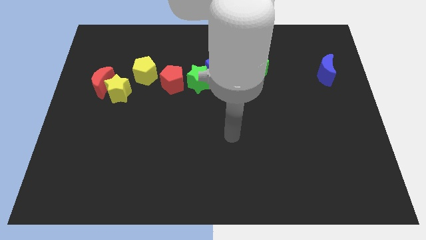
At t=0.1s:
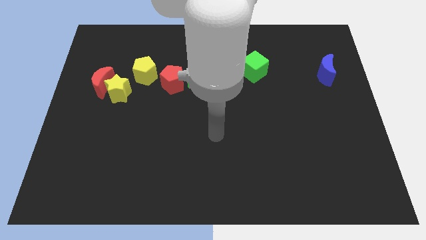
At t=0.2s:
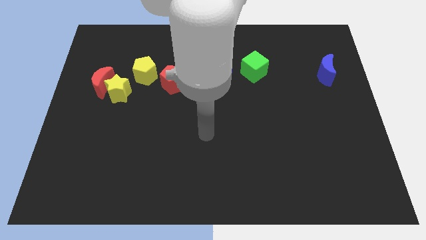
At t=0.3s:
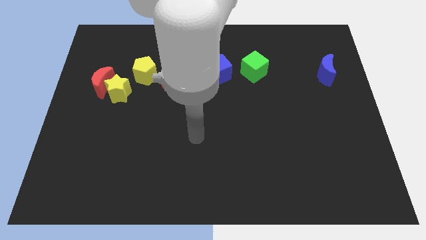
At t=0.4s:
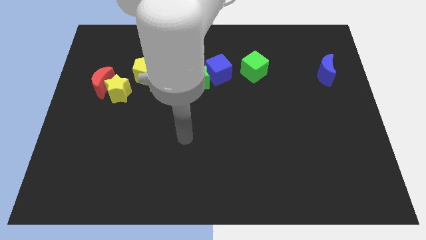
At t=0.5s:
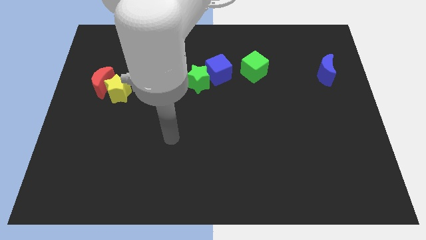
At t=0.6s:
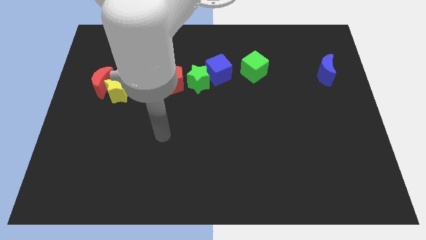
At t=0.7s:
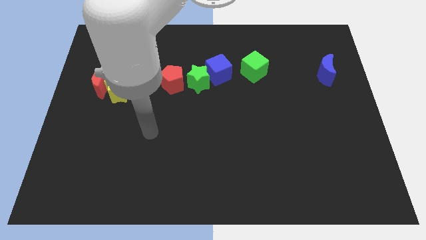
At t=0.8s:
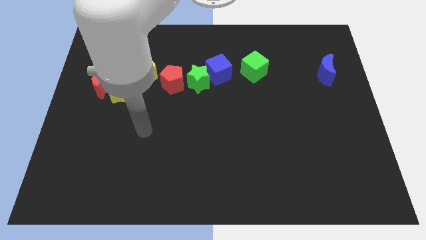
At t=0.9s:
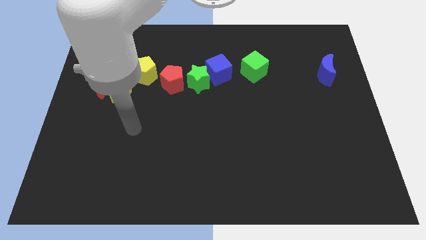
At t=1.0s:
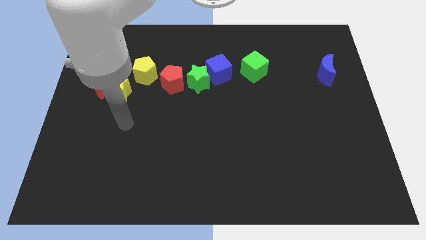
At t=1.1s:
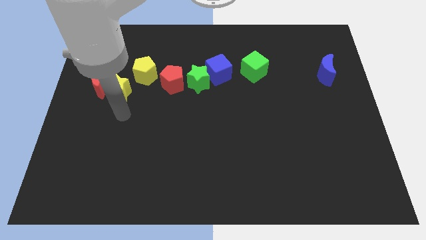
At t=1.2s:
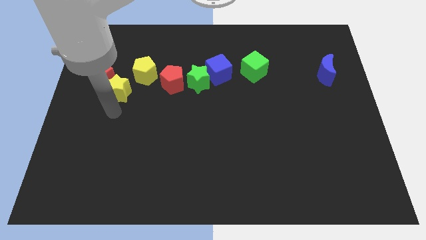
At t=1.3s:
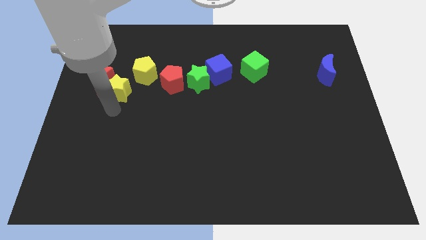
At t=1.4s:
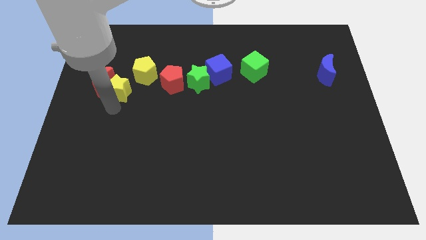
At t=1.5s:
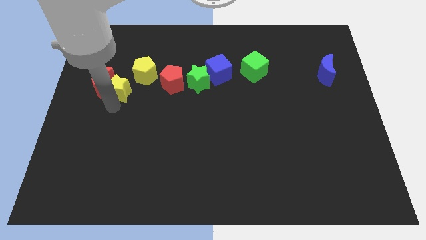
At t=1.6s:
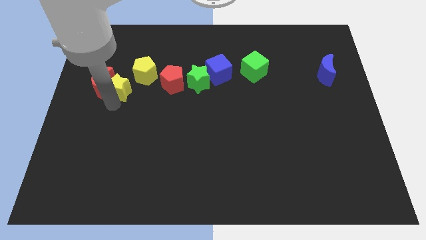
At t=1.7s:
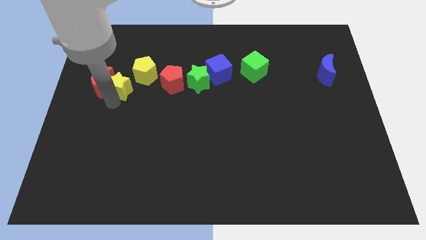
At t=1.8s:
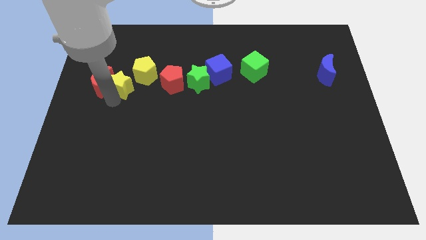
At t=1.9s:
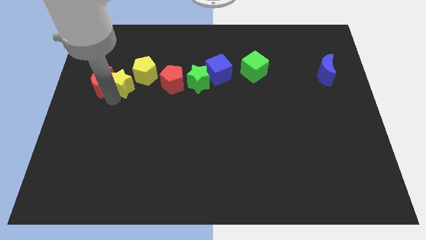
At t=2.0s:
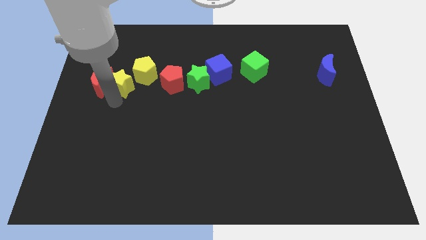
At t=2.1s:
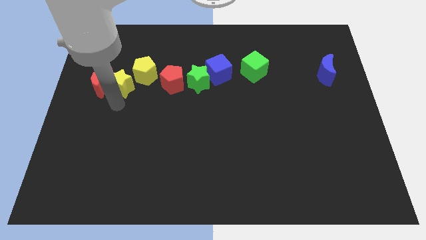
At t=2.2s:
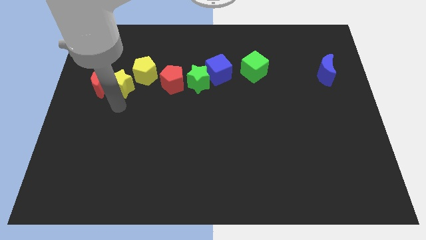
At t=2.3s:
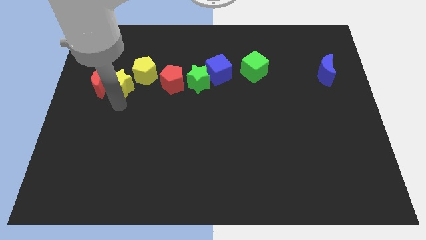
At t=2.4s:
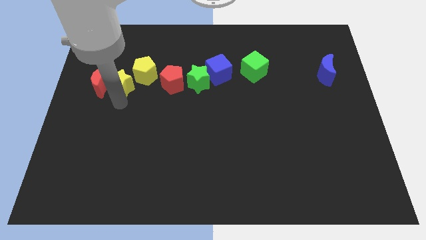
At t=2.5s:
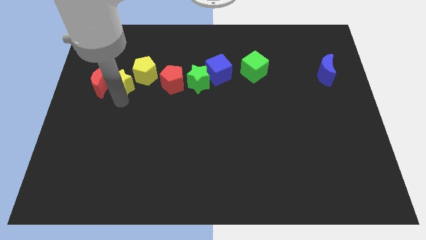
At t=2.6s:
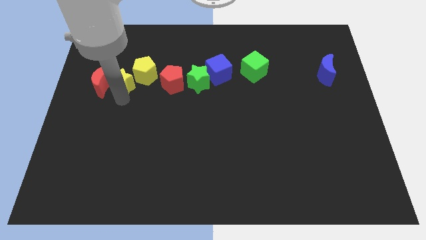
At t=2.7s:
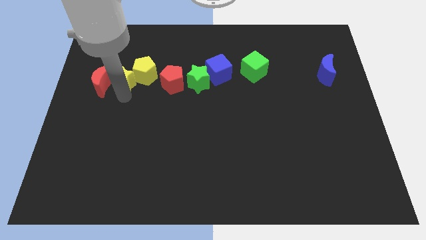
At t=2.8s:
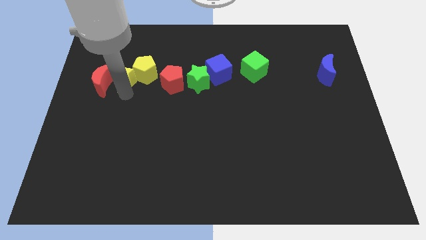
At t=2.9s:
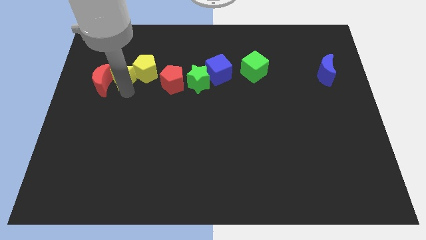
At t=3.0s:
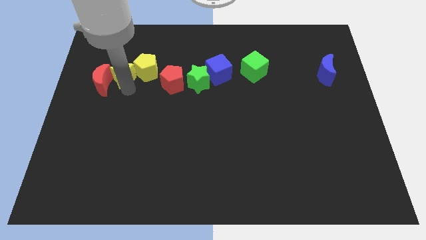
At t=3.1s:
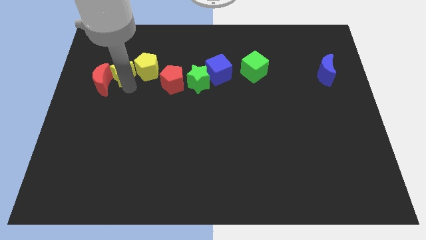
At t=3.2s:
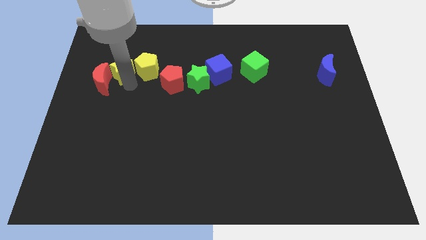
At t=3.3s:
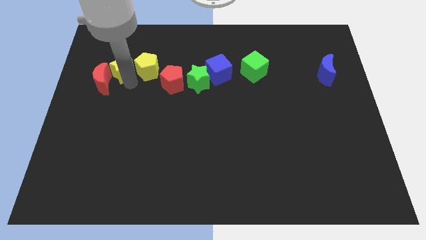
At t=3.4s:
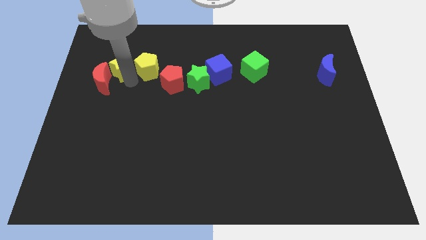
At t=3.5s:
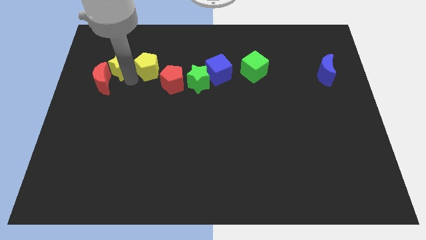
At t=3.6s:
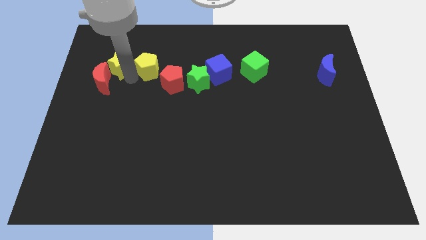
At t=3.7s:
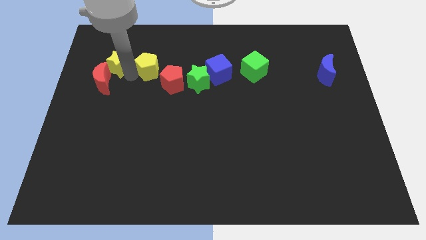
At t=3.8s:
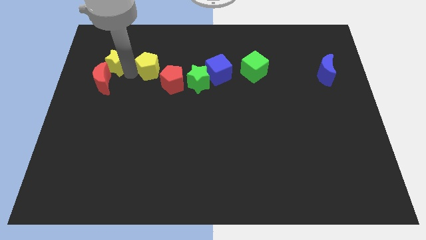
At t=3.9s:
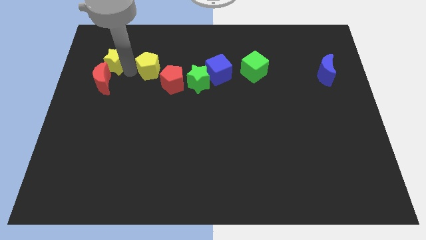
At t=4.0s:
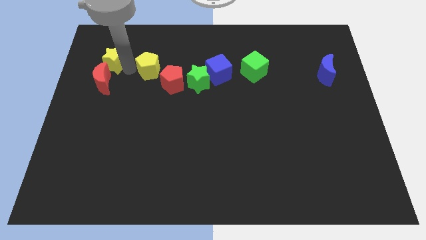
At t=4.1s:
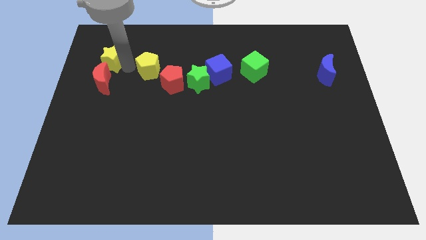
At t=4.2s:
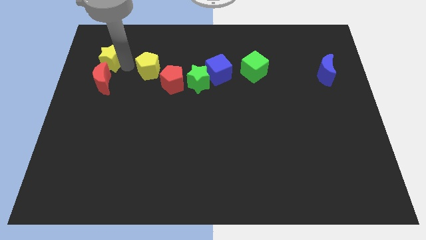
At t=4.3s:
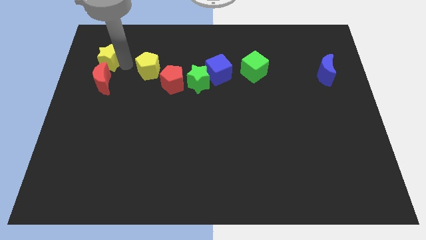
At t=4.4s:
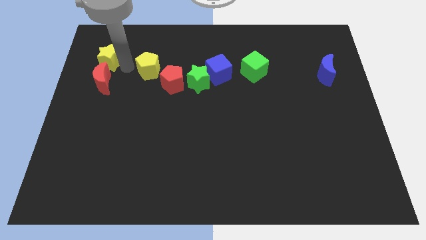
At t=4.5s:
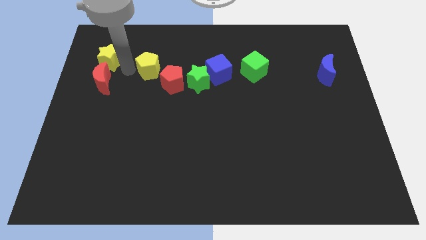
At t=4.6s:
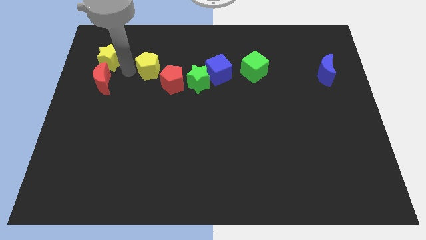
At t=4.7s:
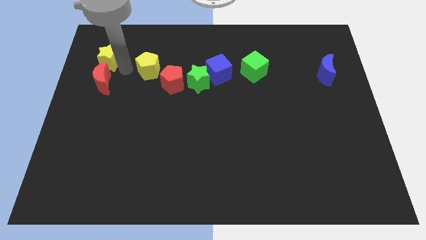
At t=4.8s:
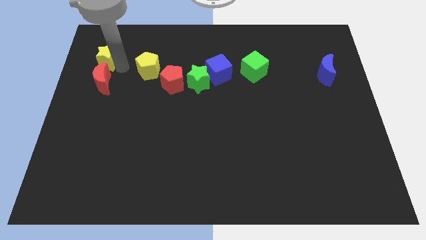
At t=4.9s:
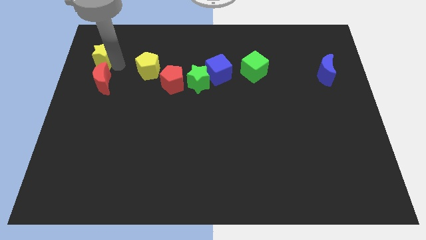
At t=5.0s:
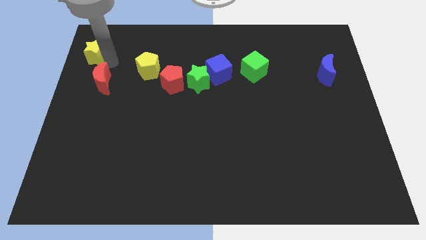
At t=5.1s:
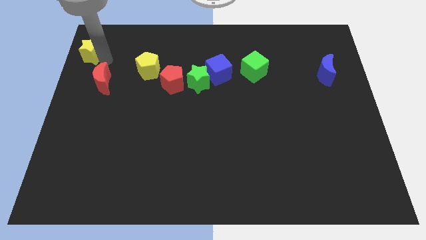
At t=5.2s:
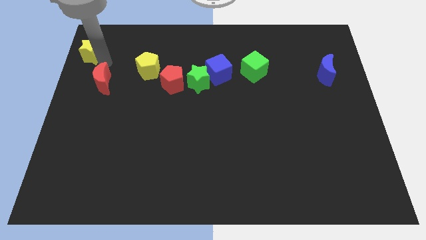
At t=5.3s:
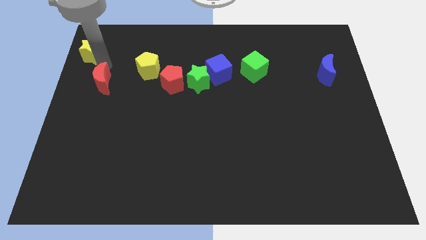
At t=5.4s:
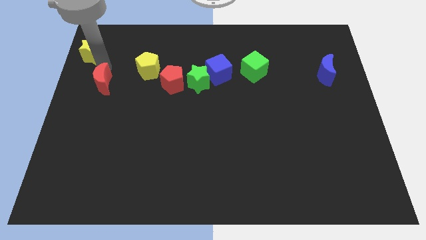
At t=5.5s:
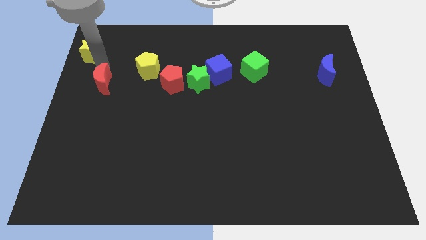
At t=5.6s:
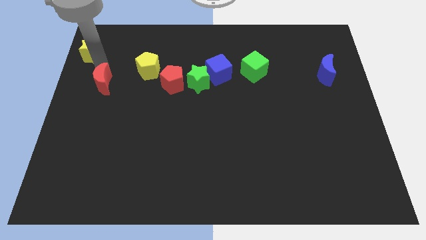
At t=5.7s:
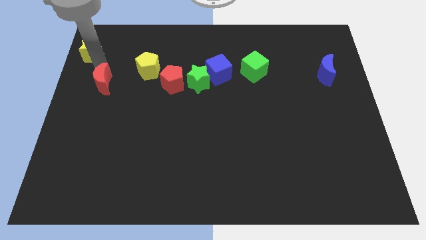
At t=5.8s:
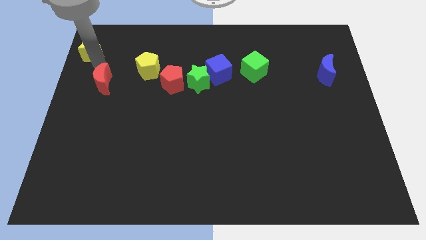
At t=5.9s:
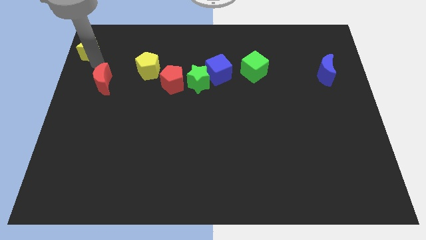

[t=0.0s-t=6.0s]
push the yellow star to the top left

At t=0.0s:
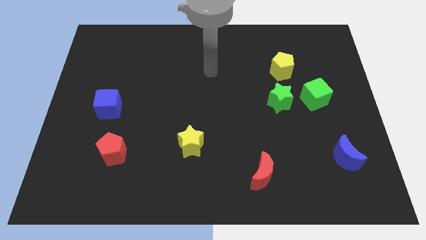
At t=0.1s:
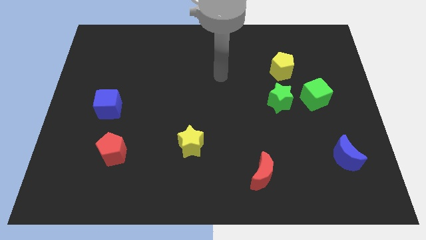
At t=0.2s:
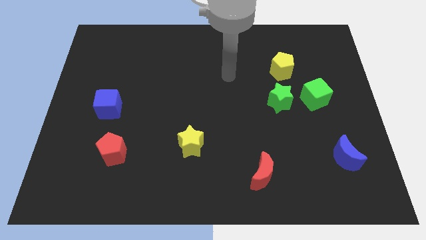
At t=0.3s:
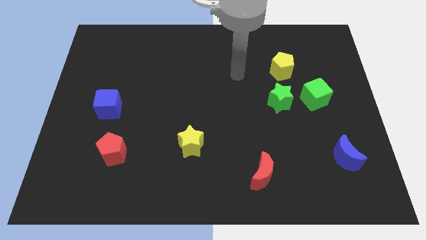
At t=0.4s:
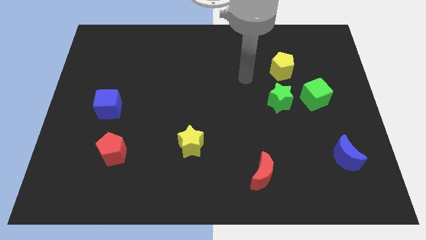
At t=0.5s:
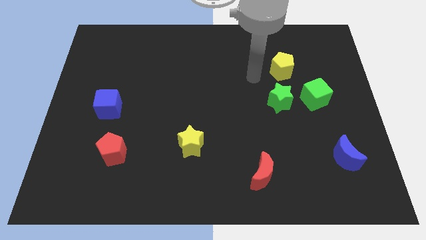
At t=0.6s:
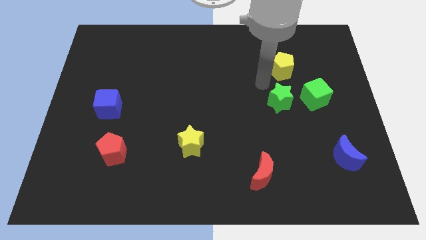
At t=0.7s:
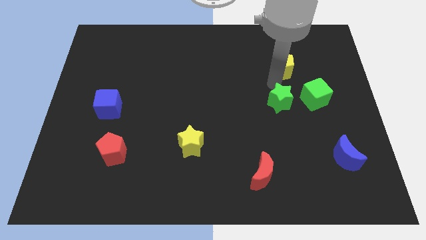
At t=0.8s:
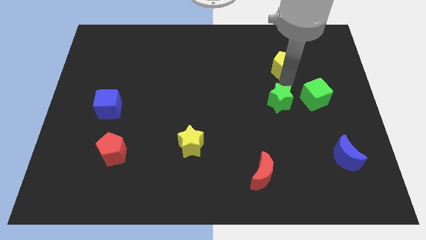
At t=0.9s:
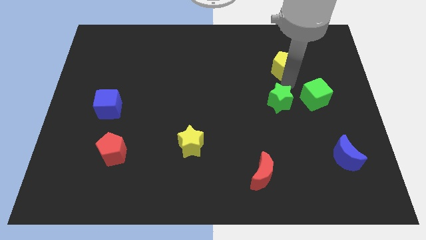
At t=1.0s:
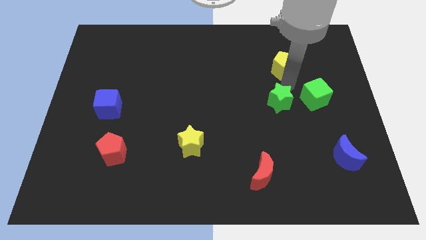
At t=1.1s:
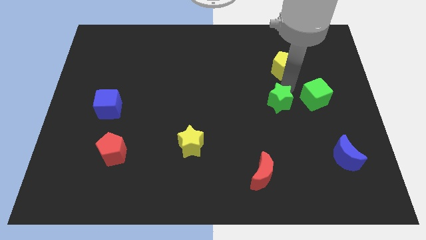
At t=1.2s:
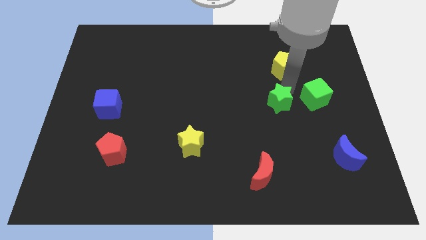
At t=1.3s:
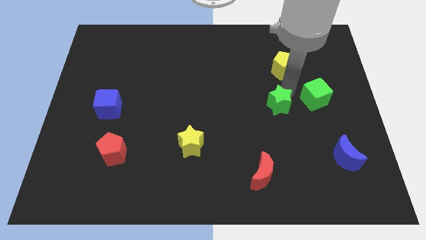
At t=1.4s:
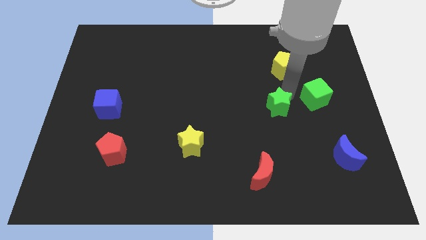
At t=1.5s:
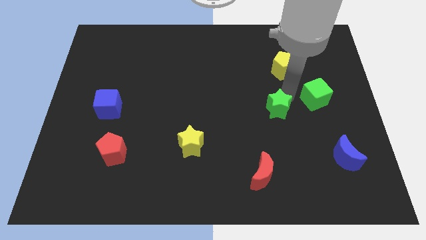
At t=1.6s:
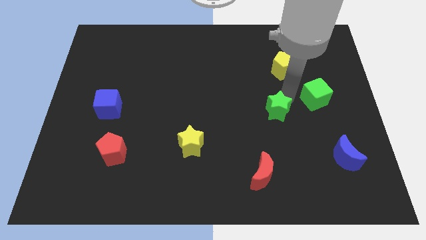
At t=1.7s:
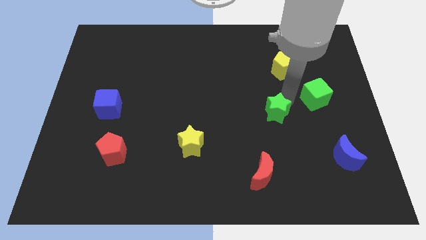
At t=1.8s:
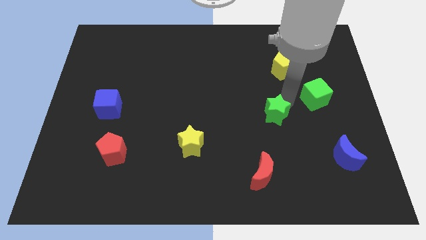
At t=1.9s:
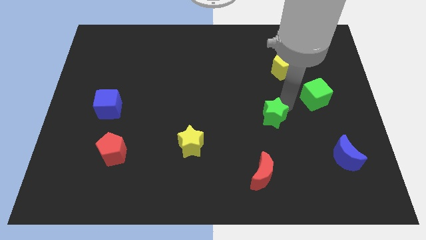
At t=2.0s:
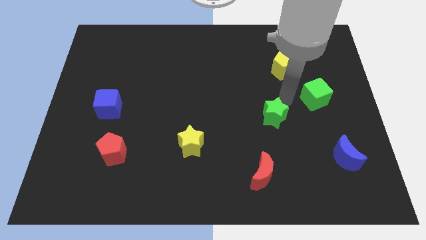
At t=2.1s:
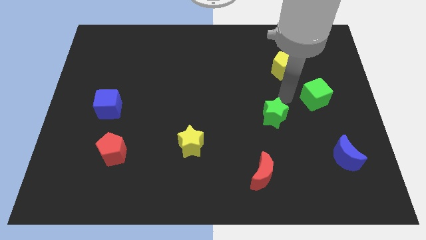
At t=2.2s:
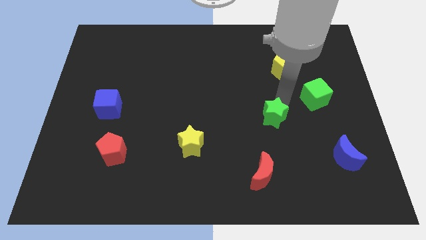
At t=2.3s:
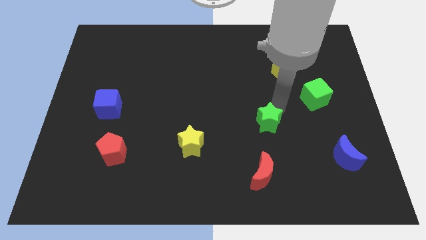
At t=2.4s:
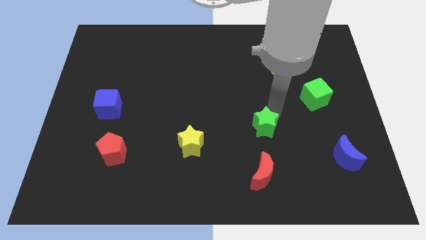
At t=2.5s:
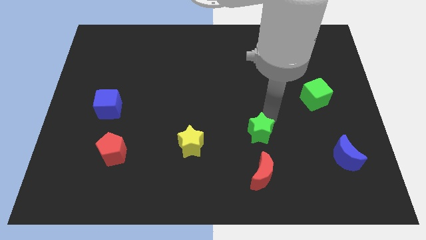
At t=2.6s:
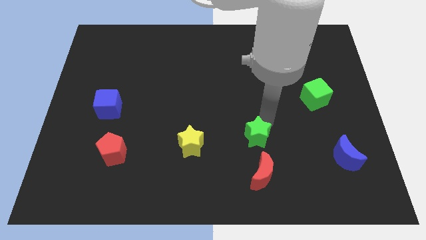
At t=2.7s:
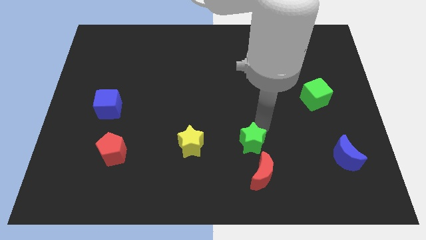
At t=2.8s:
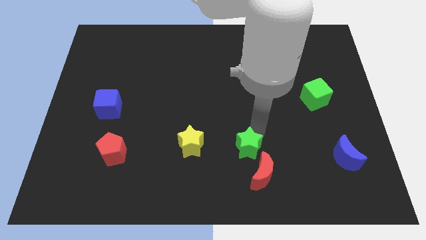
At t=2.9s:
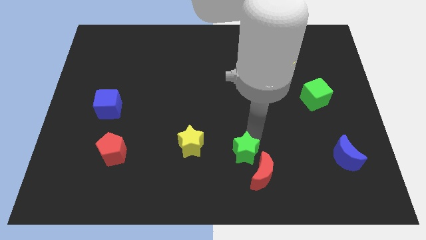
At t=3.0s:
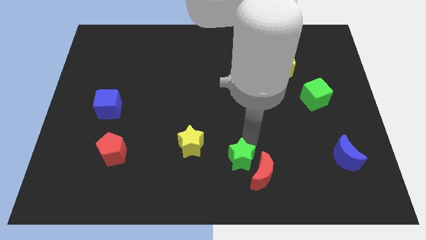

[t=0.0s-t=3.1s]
push the green star to the bottom side
